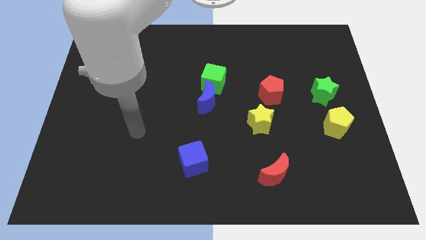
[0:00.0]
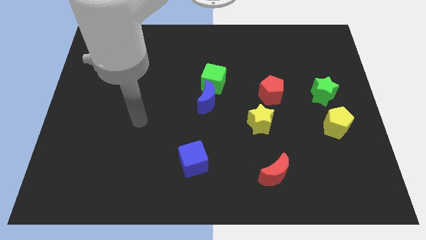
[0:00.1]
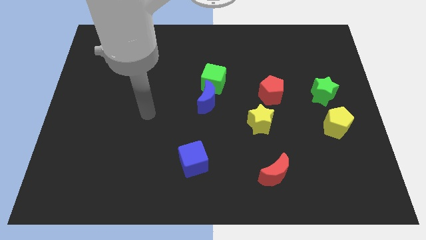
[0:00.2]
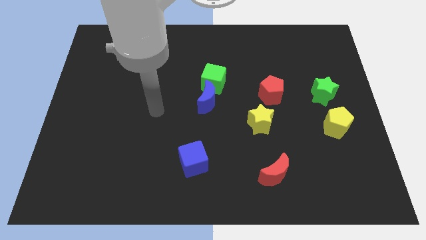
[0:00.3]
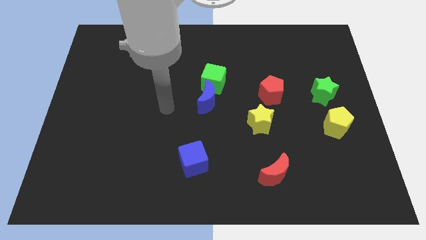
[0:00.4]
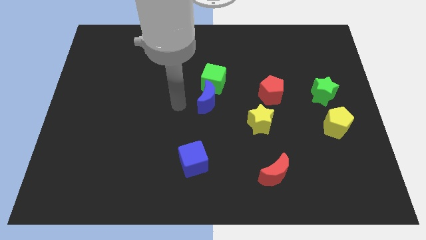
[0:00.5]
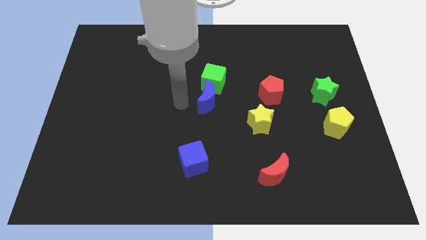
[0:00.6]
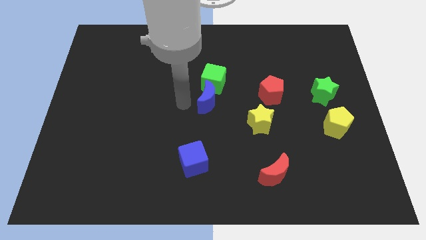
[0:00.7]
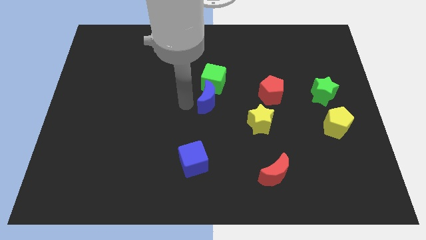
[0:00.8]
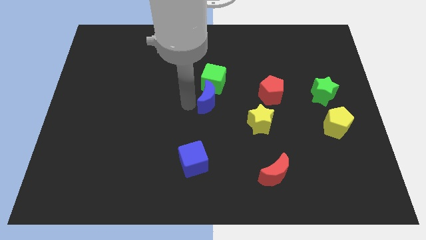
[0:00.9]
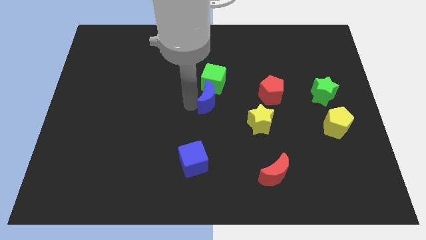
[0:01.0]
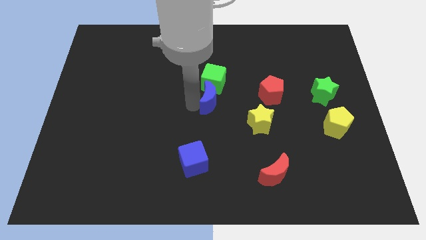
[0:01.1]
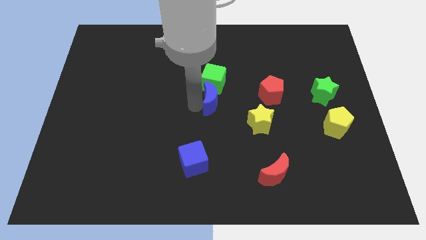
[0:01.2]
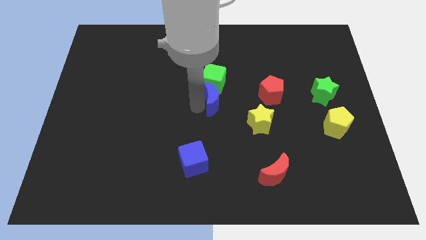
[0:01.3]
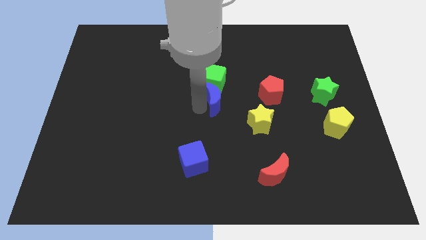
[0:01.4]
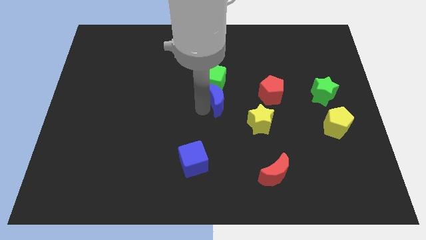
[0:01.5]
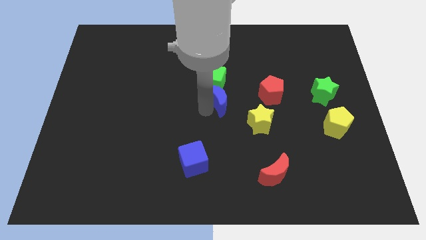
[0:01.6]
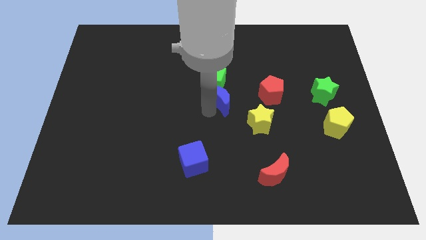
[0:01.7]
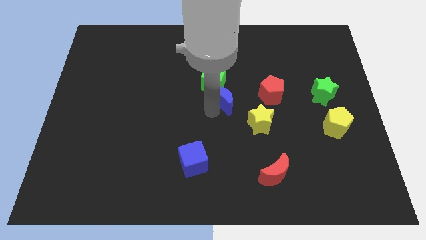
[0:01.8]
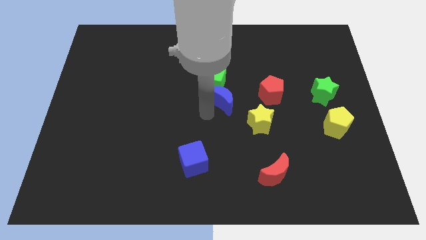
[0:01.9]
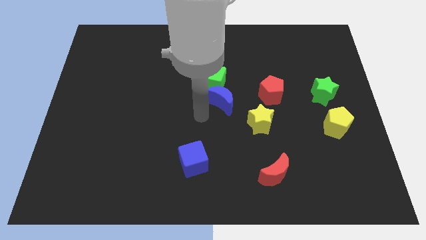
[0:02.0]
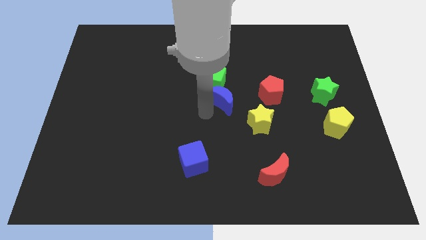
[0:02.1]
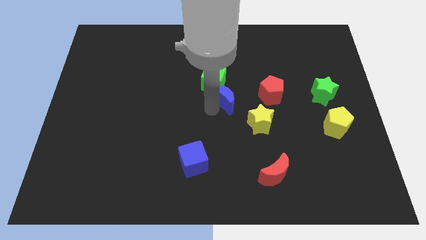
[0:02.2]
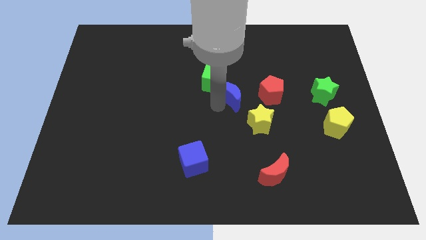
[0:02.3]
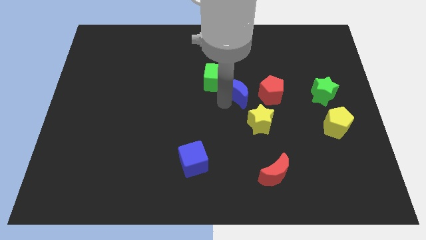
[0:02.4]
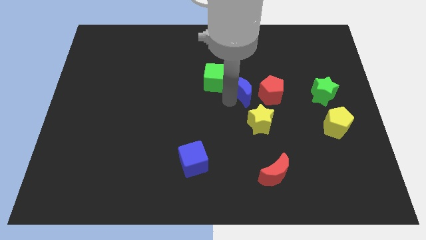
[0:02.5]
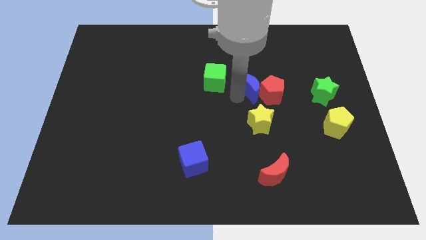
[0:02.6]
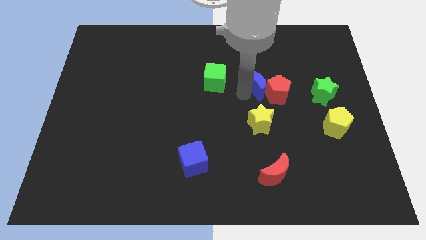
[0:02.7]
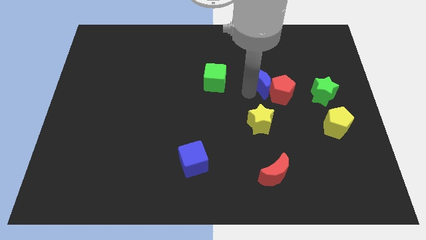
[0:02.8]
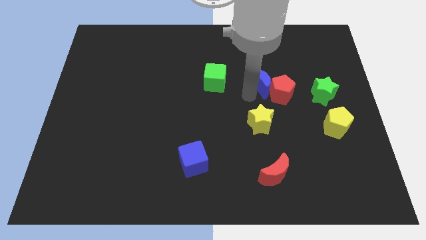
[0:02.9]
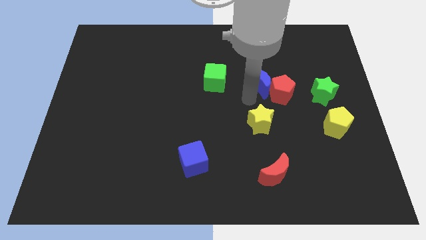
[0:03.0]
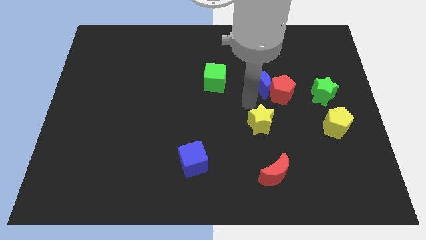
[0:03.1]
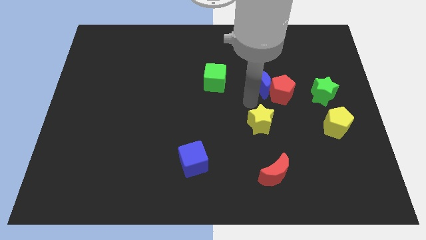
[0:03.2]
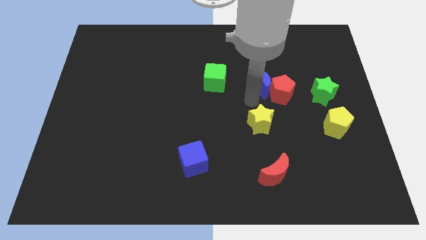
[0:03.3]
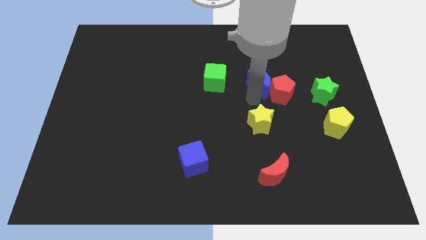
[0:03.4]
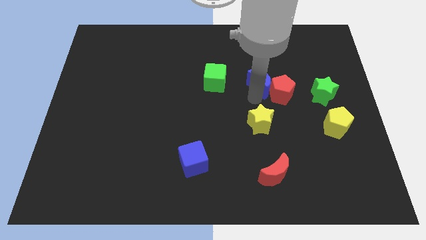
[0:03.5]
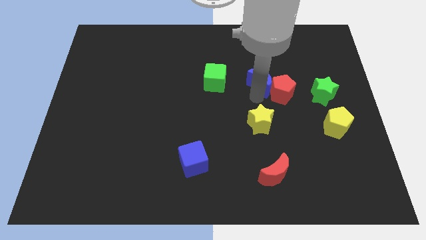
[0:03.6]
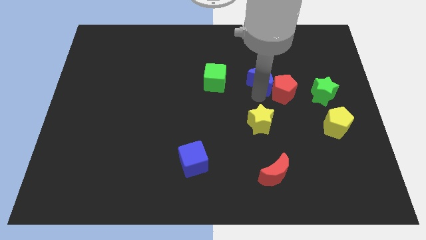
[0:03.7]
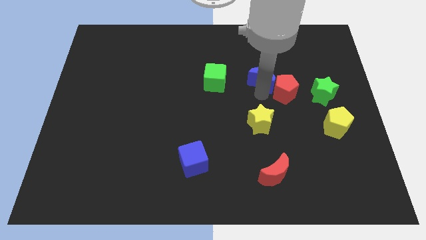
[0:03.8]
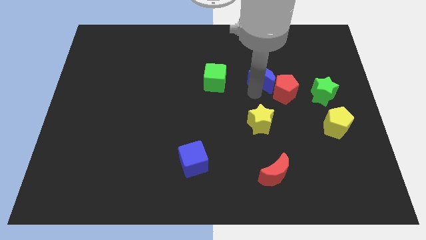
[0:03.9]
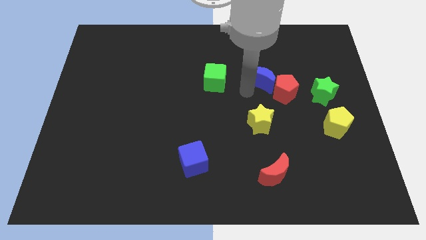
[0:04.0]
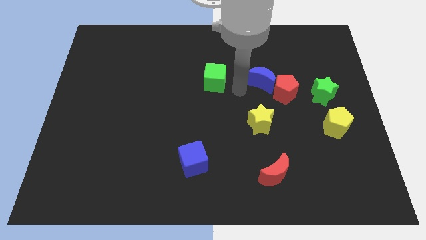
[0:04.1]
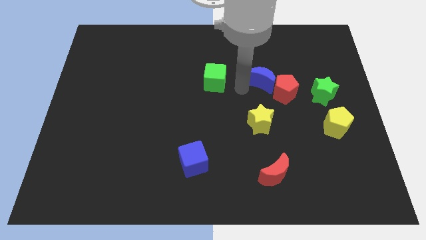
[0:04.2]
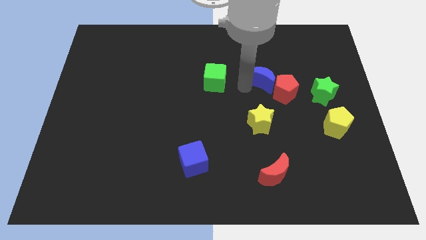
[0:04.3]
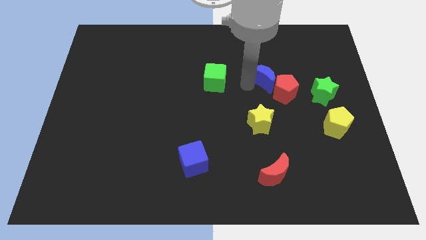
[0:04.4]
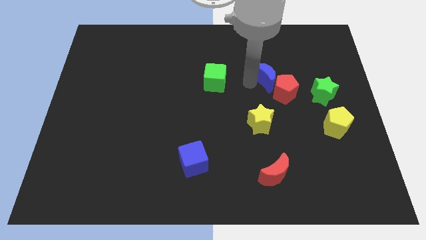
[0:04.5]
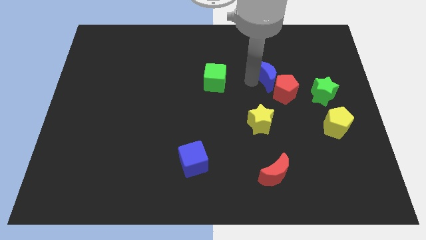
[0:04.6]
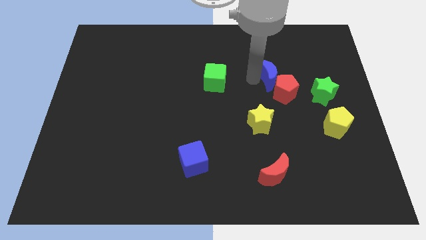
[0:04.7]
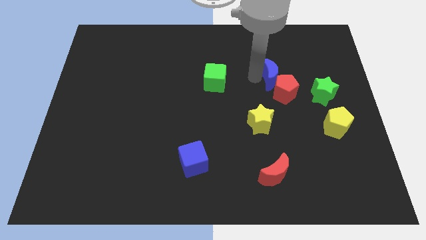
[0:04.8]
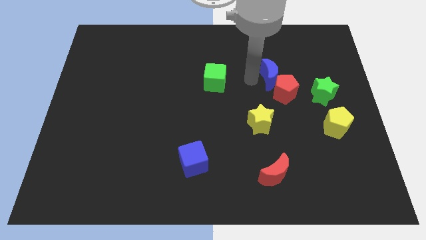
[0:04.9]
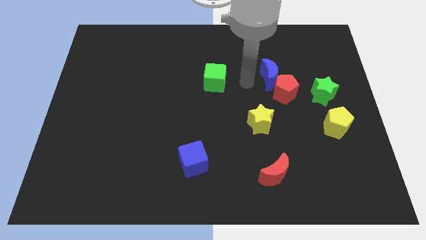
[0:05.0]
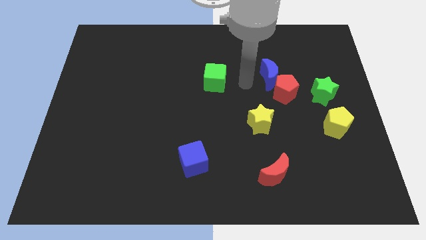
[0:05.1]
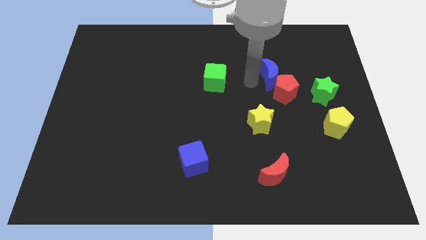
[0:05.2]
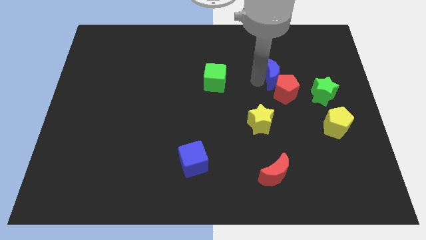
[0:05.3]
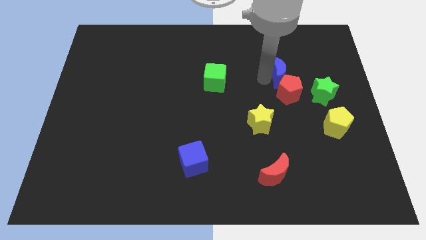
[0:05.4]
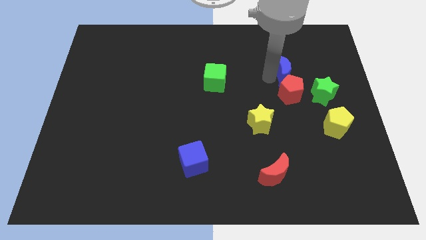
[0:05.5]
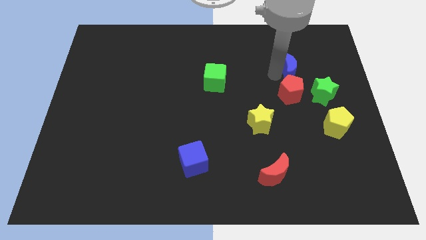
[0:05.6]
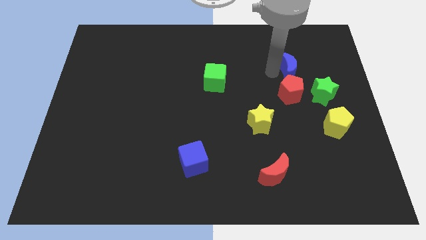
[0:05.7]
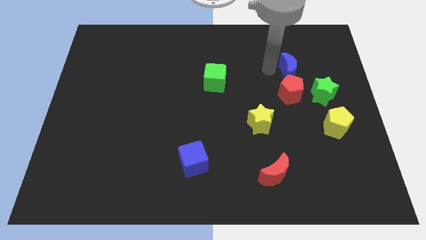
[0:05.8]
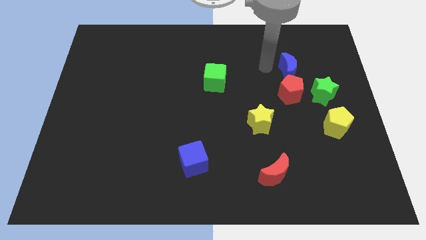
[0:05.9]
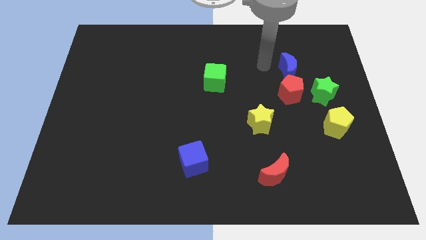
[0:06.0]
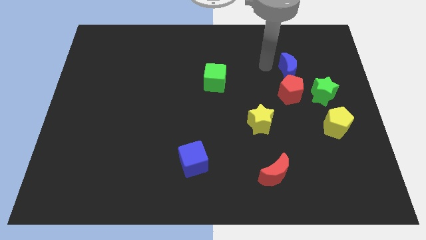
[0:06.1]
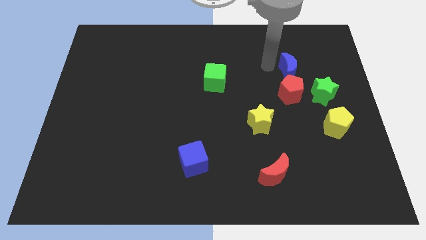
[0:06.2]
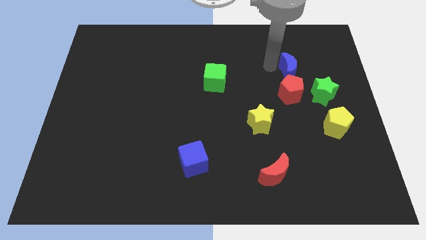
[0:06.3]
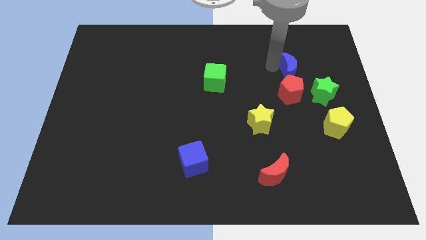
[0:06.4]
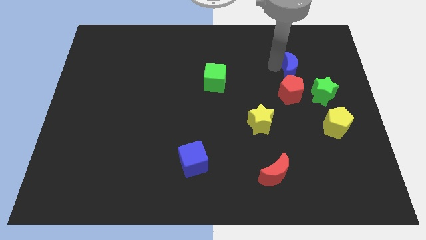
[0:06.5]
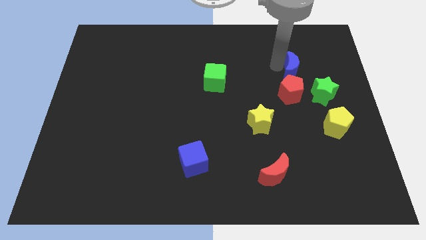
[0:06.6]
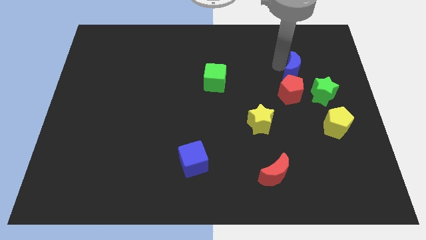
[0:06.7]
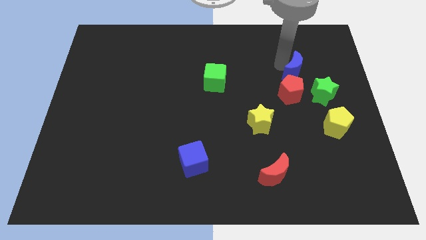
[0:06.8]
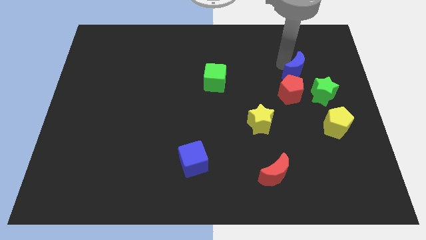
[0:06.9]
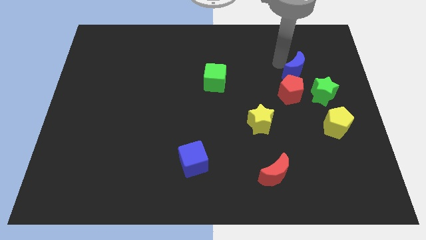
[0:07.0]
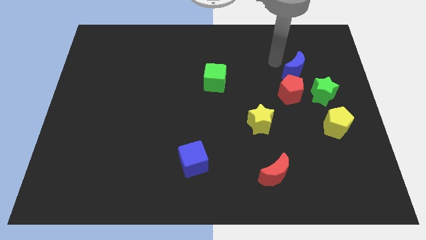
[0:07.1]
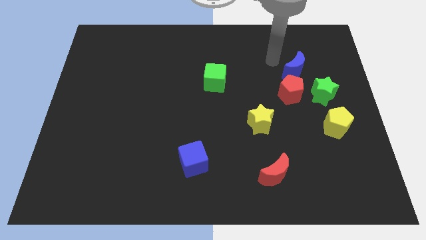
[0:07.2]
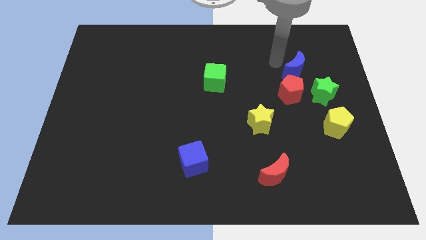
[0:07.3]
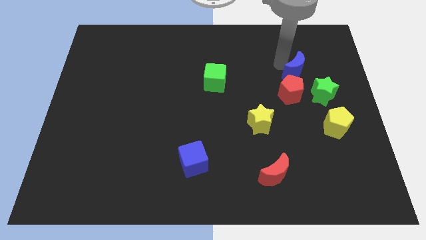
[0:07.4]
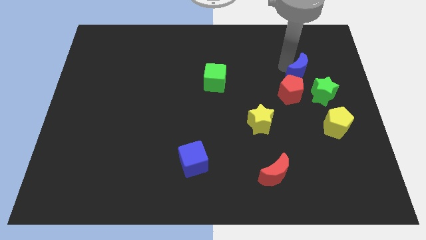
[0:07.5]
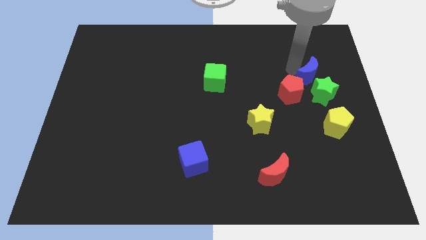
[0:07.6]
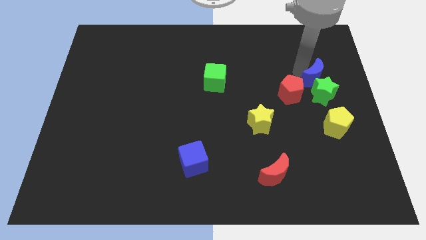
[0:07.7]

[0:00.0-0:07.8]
put the blue moon above the yellow pentagon

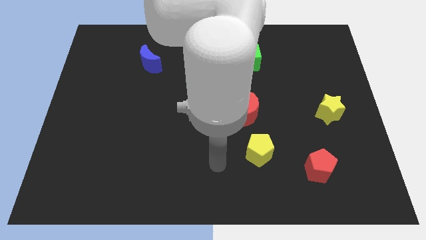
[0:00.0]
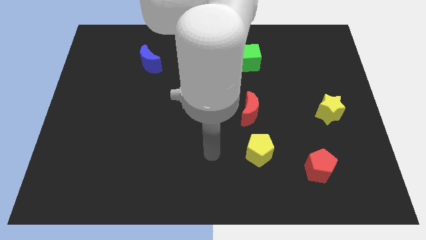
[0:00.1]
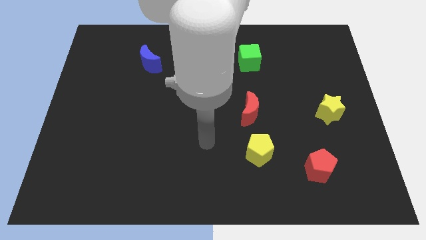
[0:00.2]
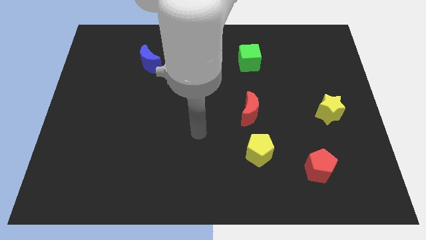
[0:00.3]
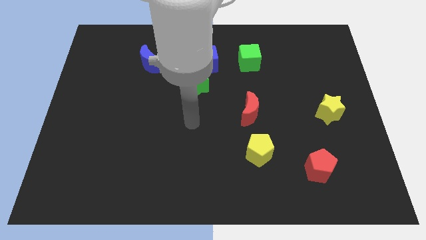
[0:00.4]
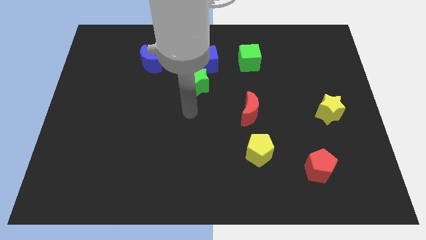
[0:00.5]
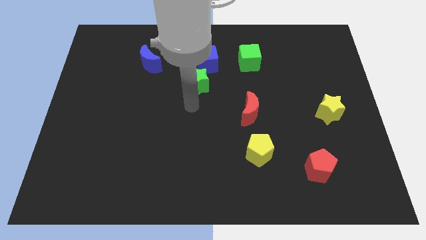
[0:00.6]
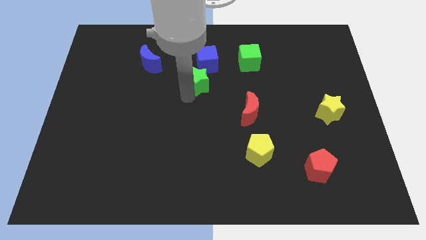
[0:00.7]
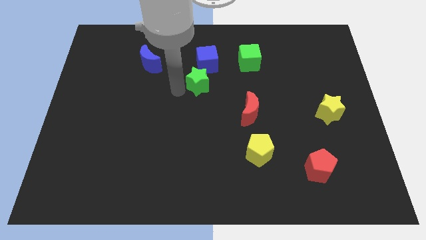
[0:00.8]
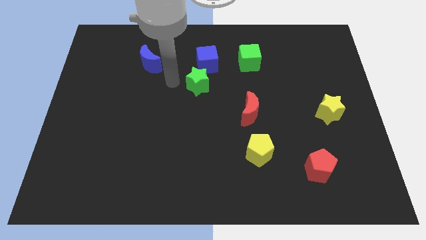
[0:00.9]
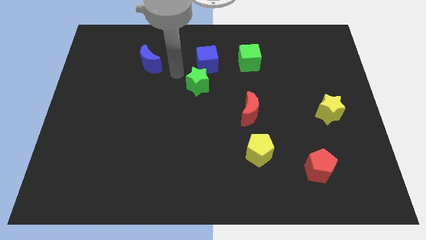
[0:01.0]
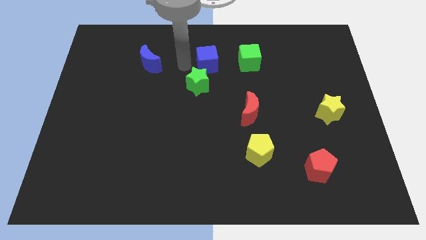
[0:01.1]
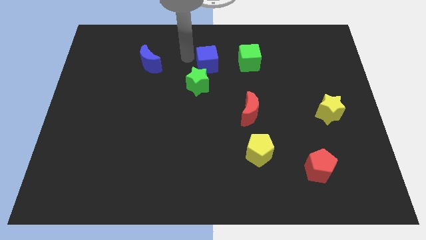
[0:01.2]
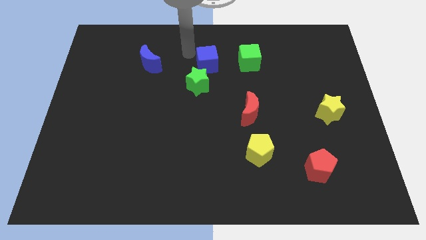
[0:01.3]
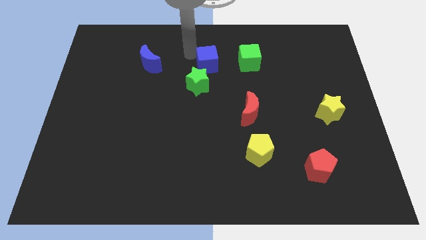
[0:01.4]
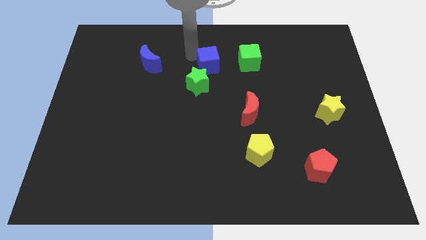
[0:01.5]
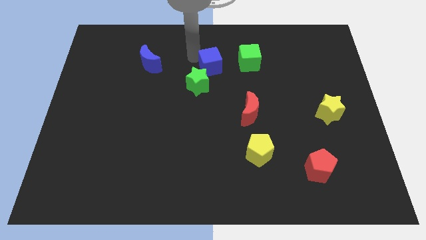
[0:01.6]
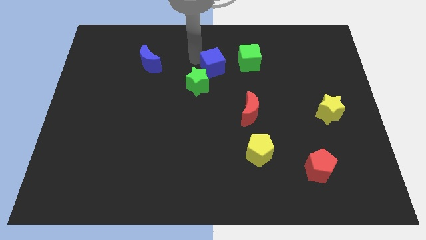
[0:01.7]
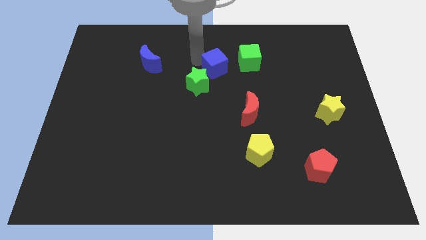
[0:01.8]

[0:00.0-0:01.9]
push the blue cube diagonally down and to the left of the green cube
